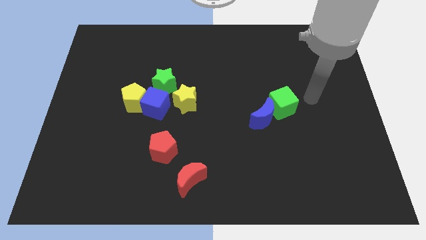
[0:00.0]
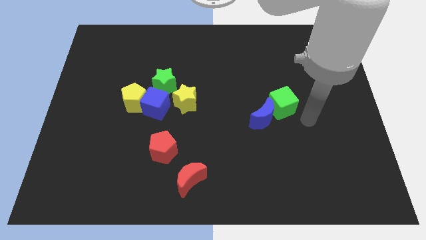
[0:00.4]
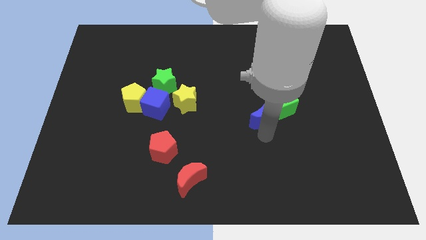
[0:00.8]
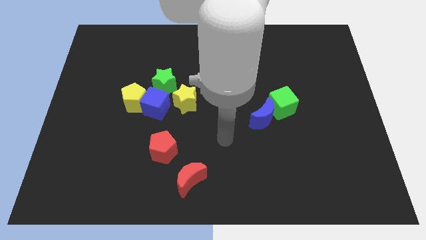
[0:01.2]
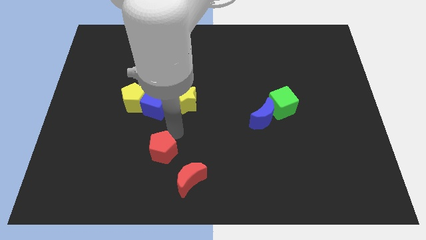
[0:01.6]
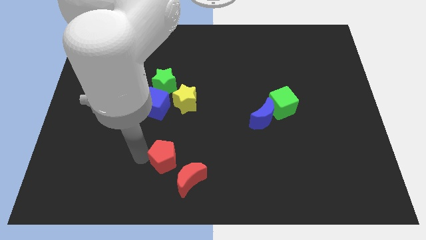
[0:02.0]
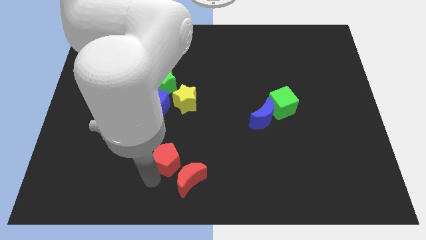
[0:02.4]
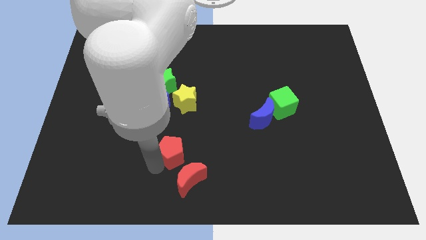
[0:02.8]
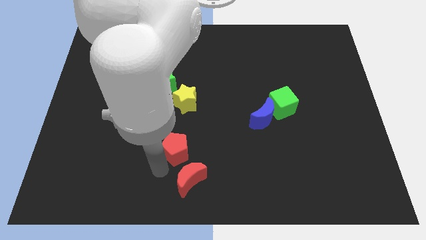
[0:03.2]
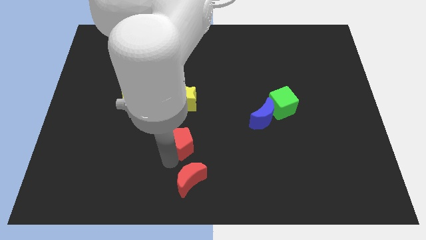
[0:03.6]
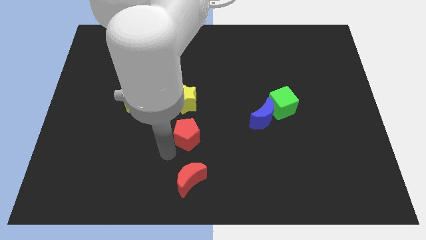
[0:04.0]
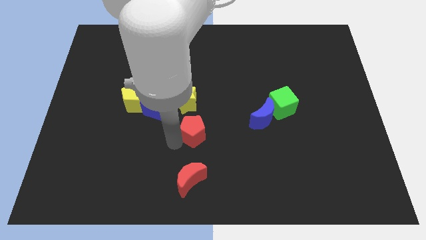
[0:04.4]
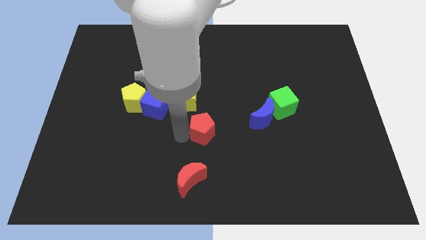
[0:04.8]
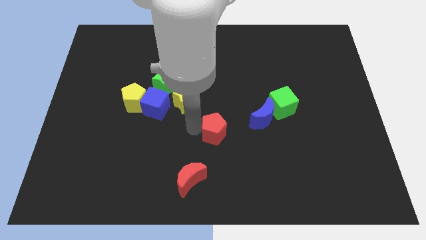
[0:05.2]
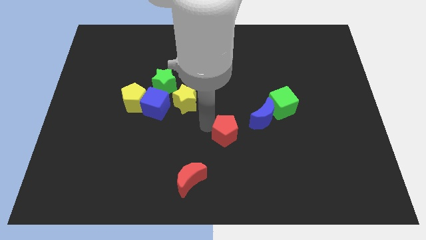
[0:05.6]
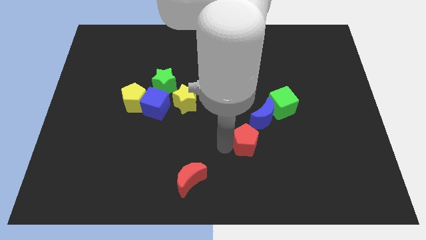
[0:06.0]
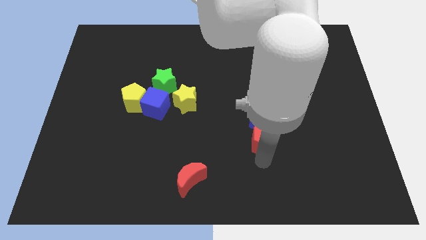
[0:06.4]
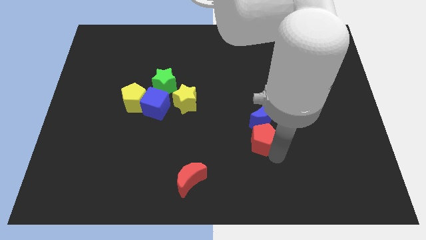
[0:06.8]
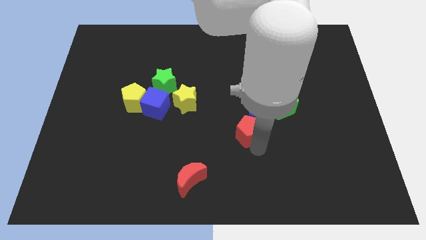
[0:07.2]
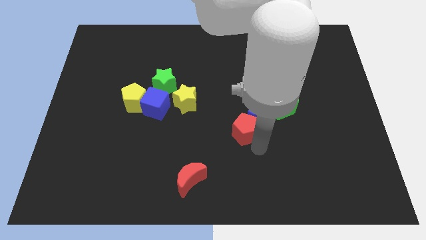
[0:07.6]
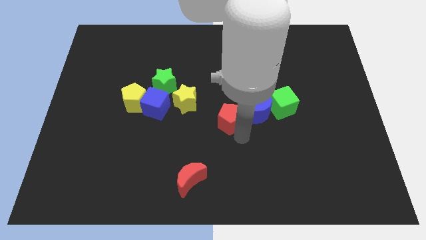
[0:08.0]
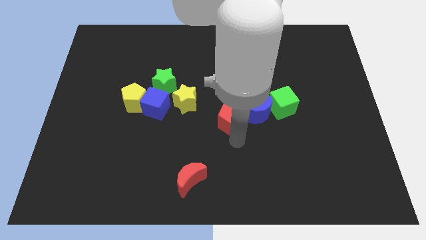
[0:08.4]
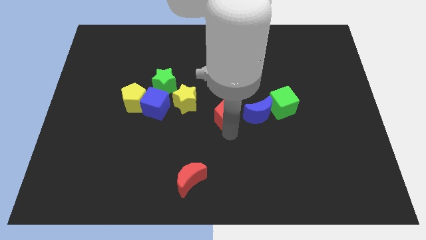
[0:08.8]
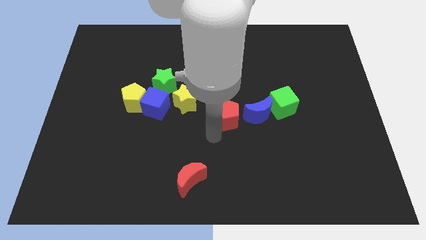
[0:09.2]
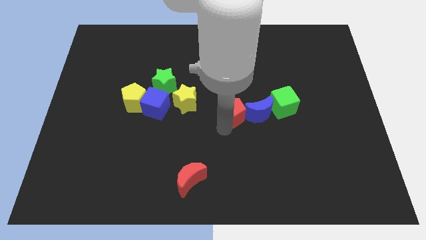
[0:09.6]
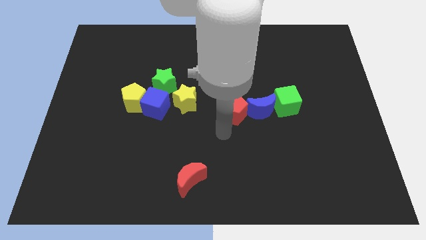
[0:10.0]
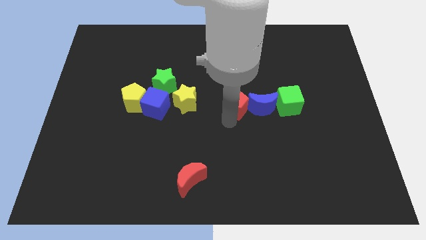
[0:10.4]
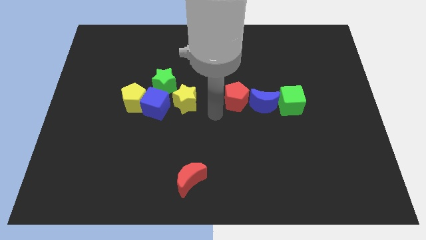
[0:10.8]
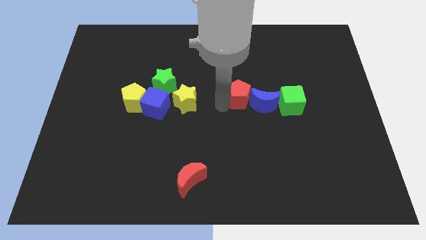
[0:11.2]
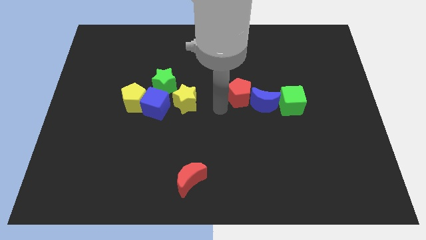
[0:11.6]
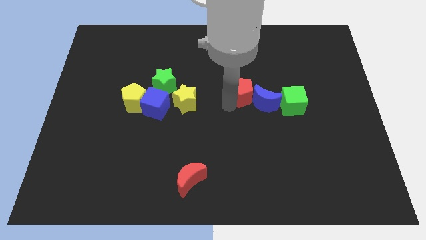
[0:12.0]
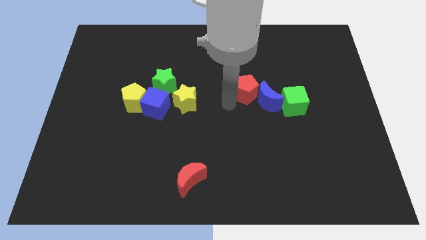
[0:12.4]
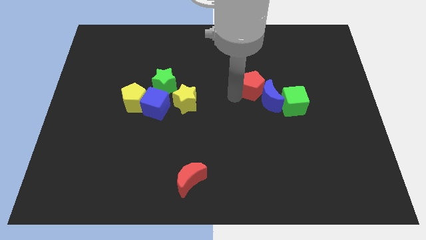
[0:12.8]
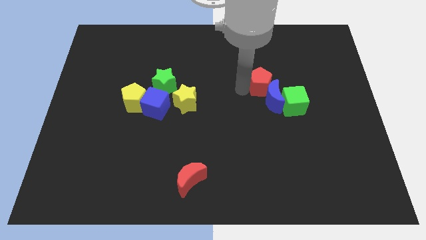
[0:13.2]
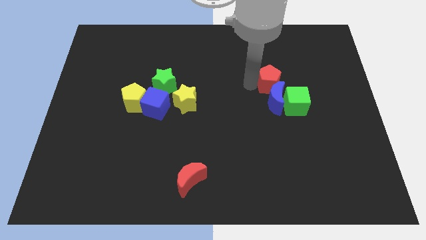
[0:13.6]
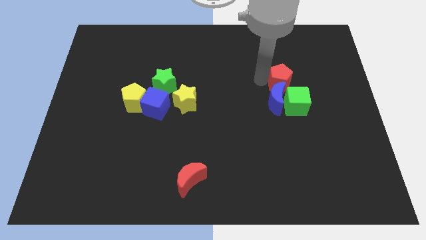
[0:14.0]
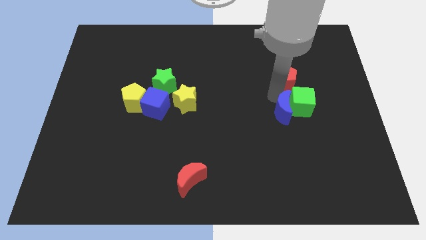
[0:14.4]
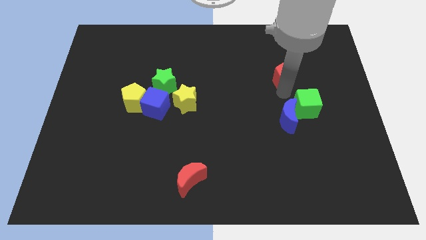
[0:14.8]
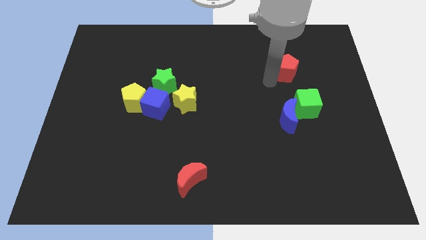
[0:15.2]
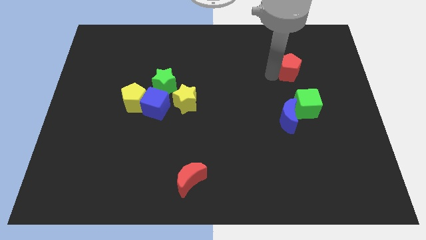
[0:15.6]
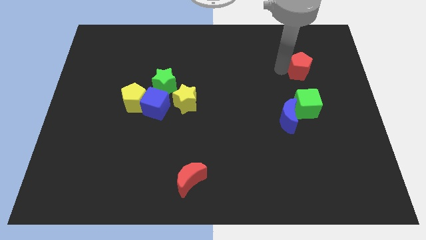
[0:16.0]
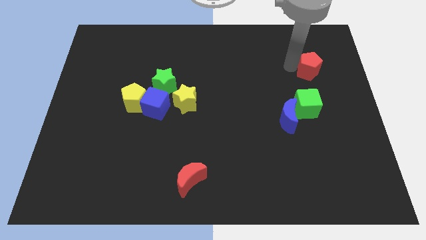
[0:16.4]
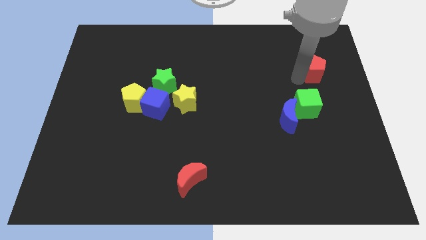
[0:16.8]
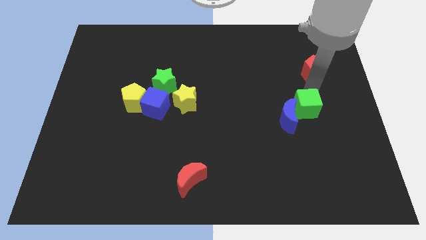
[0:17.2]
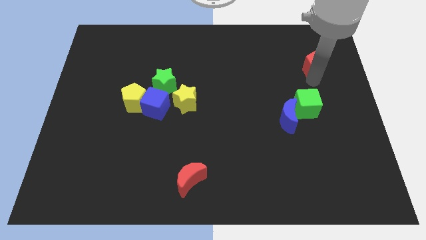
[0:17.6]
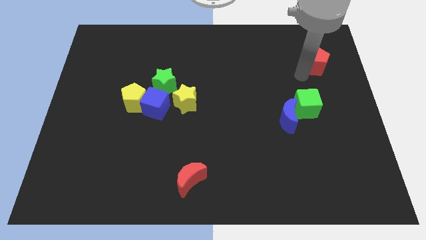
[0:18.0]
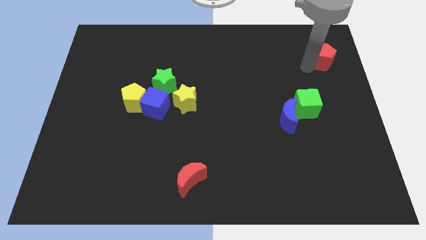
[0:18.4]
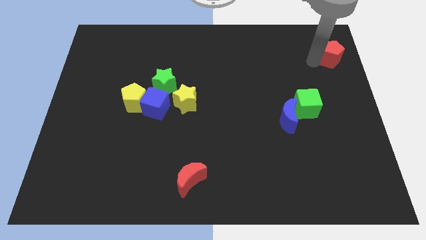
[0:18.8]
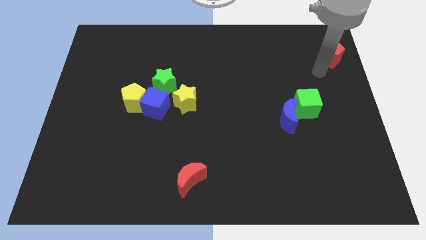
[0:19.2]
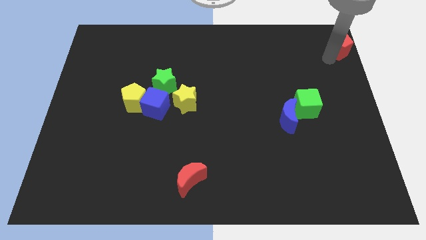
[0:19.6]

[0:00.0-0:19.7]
slide the red pentagon to the top right corner

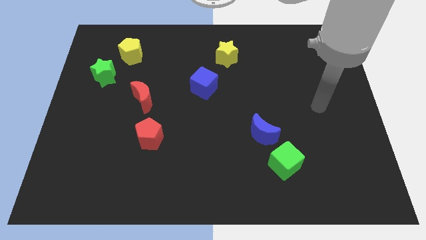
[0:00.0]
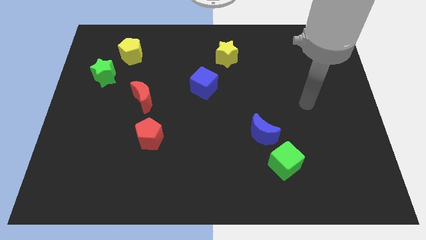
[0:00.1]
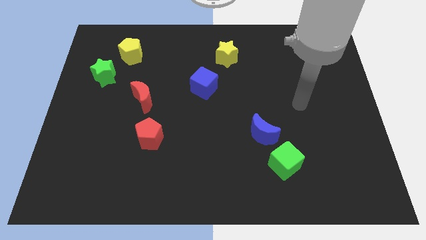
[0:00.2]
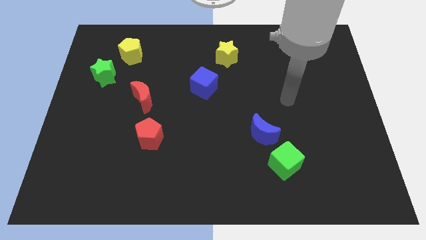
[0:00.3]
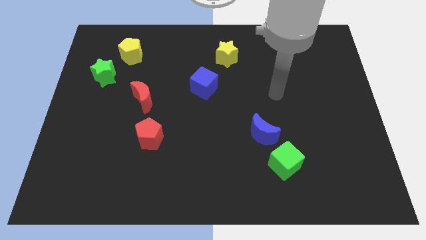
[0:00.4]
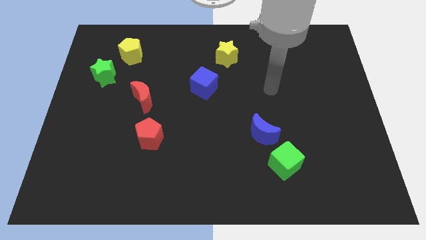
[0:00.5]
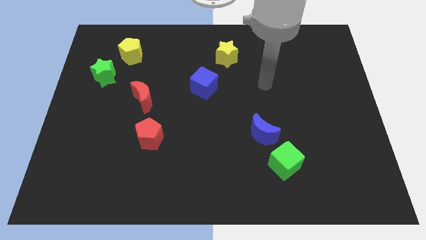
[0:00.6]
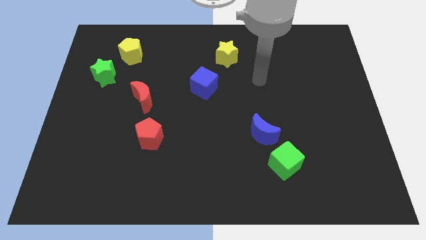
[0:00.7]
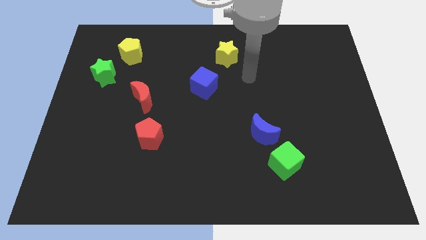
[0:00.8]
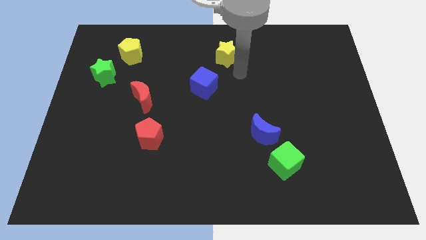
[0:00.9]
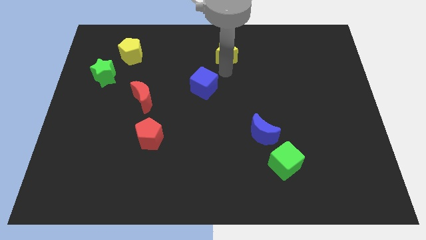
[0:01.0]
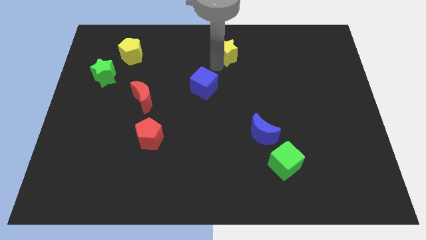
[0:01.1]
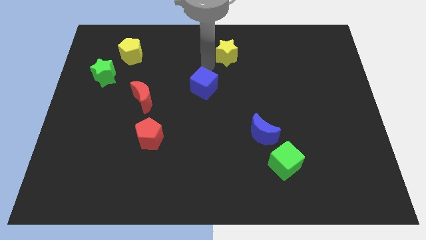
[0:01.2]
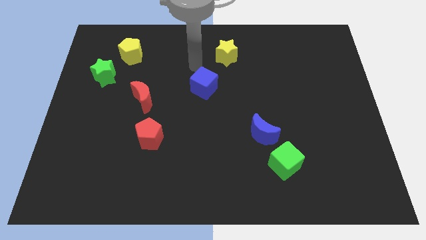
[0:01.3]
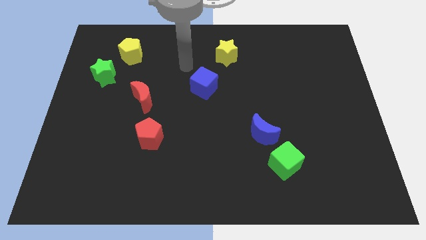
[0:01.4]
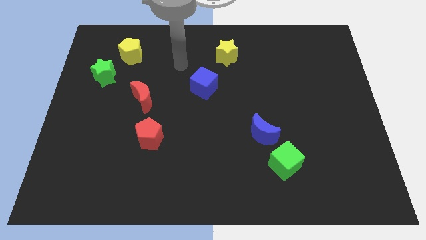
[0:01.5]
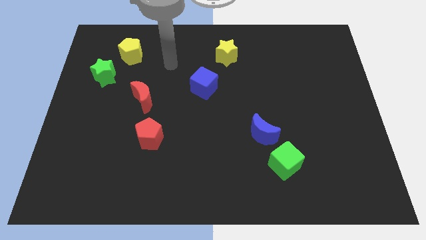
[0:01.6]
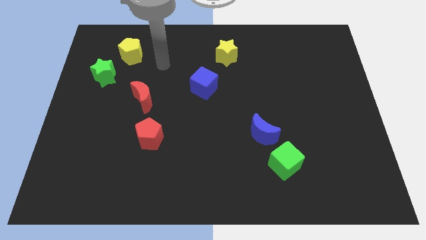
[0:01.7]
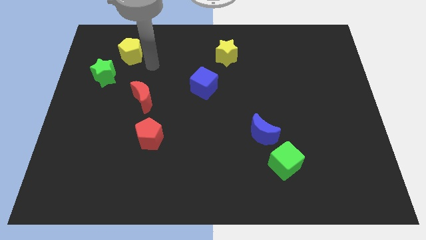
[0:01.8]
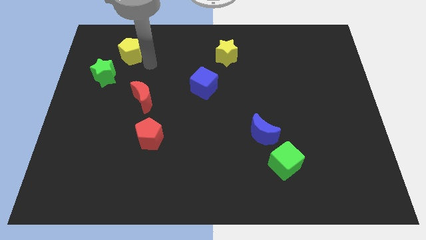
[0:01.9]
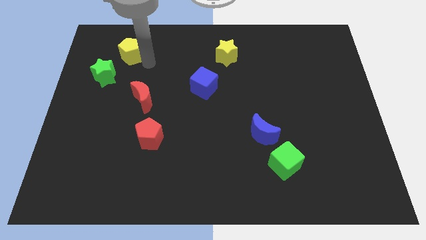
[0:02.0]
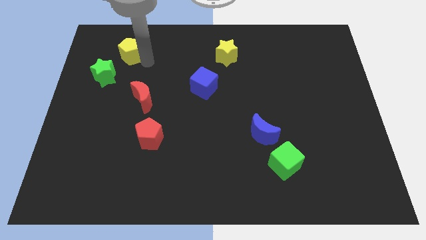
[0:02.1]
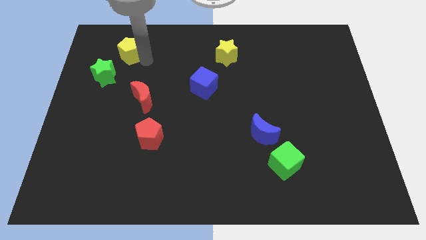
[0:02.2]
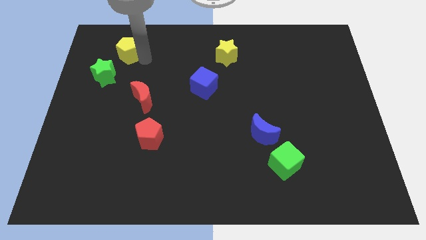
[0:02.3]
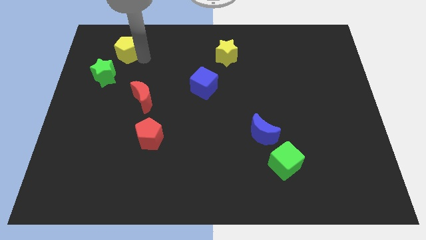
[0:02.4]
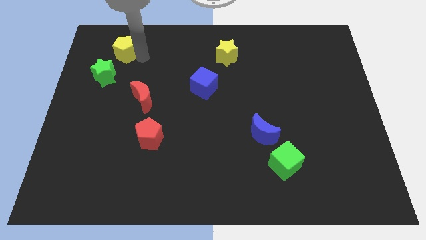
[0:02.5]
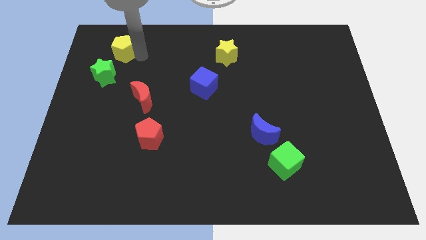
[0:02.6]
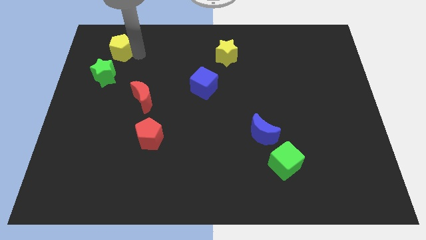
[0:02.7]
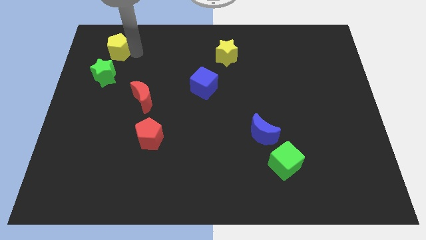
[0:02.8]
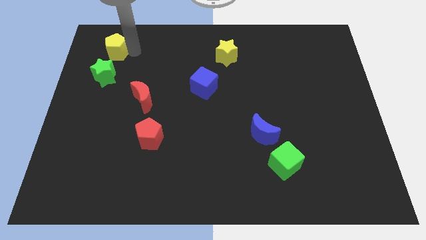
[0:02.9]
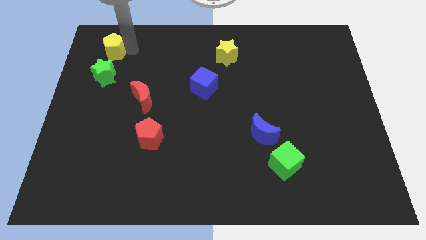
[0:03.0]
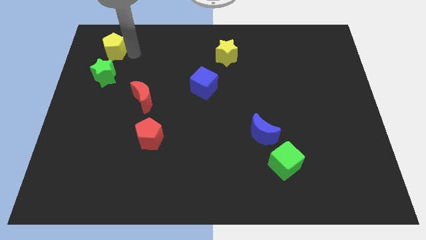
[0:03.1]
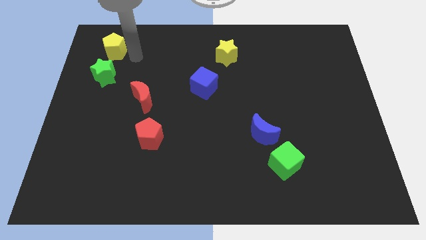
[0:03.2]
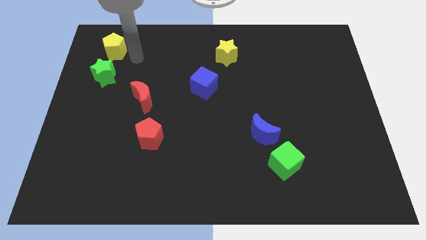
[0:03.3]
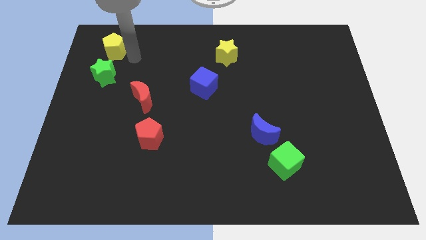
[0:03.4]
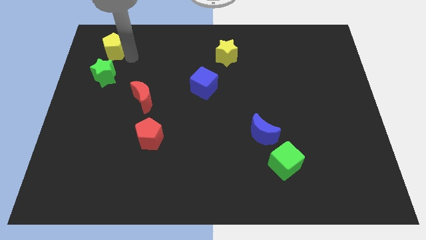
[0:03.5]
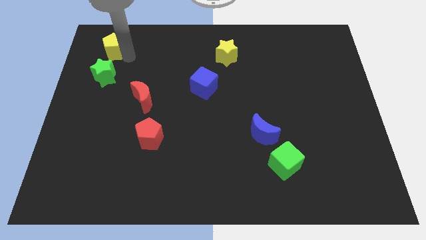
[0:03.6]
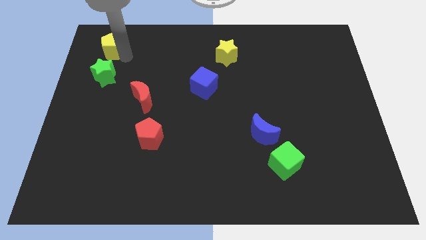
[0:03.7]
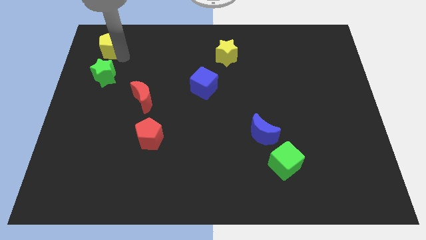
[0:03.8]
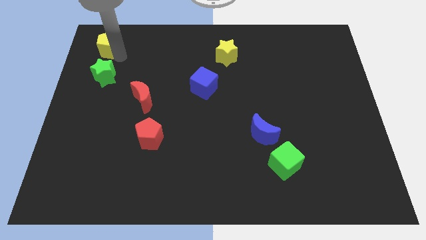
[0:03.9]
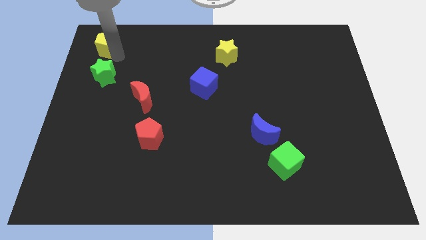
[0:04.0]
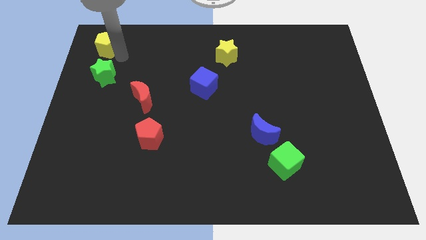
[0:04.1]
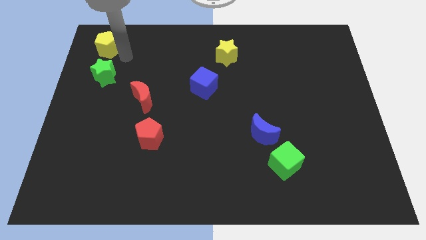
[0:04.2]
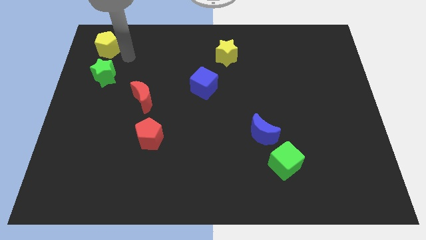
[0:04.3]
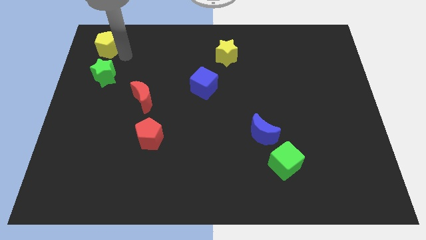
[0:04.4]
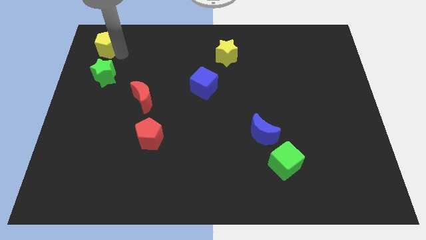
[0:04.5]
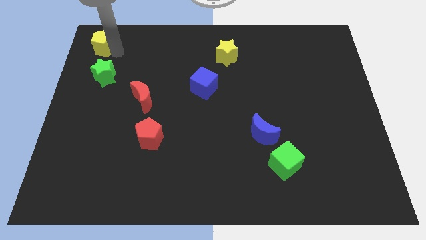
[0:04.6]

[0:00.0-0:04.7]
push the yellow pentagon to the top left of the board
